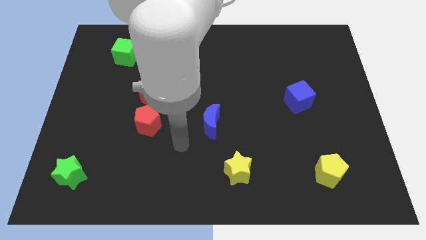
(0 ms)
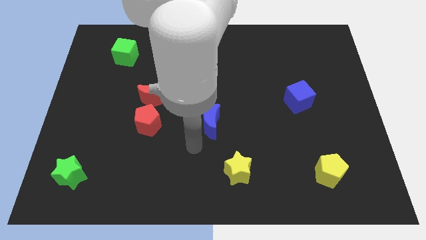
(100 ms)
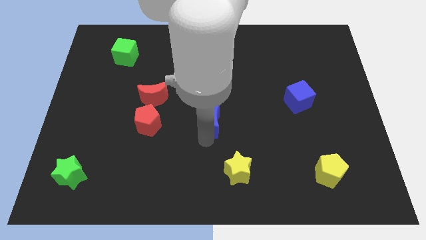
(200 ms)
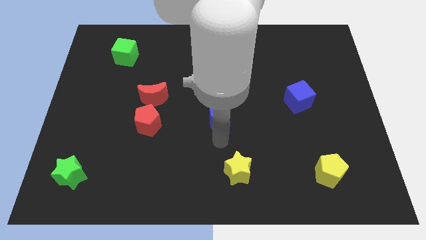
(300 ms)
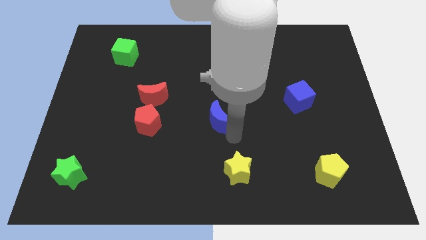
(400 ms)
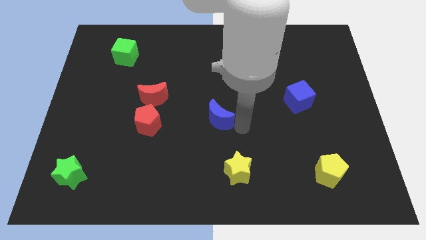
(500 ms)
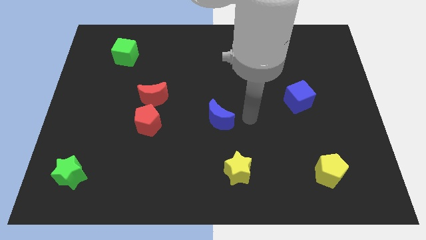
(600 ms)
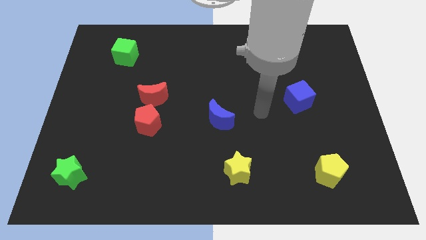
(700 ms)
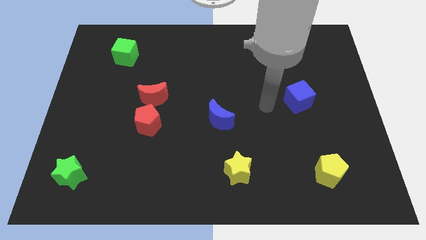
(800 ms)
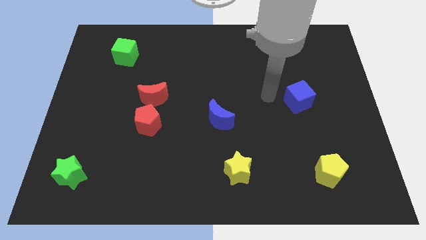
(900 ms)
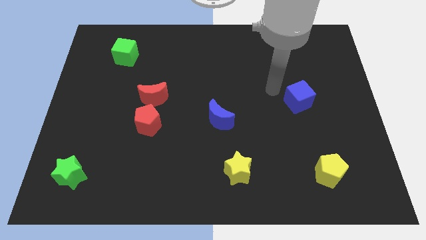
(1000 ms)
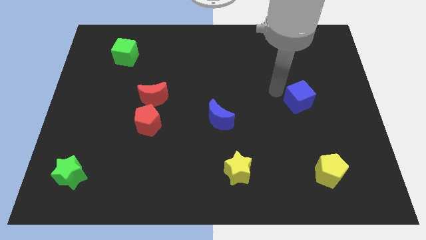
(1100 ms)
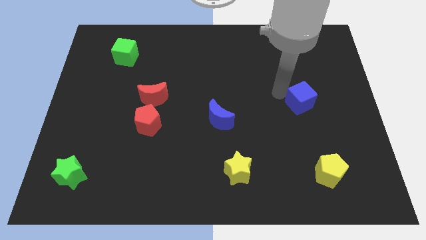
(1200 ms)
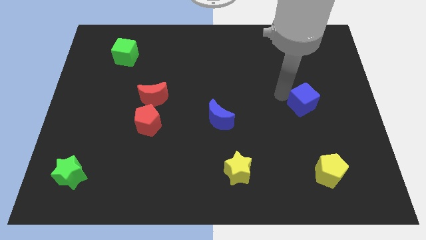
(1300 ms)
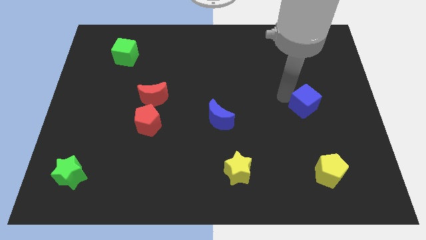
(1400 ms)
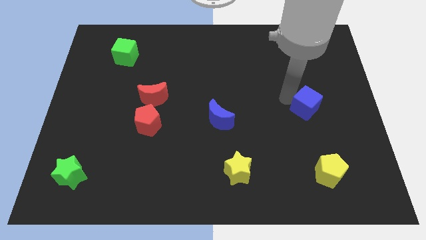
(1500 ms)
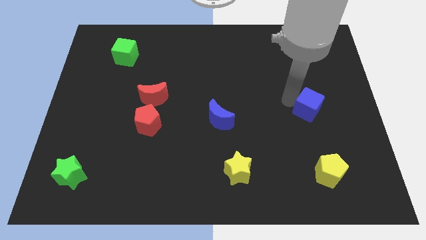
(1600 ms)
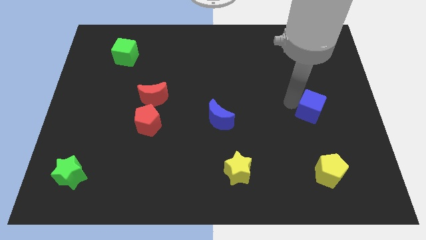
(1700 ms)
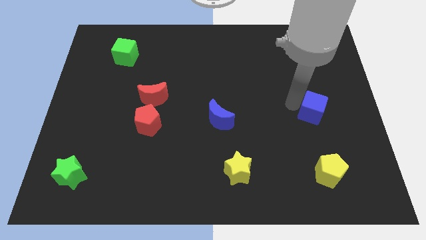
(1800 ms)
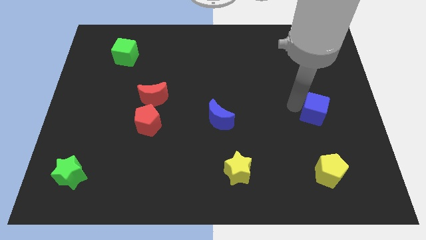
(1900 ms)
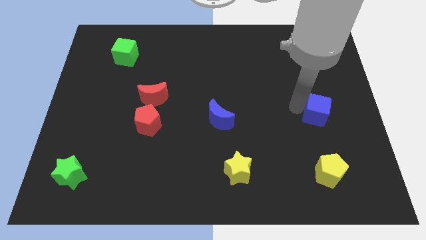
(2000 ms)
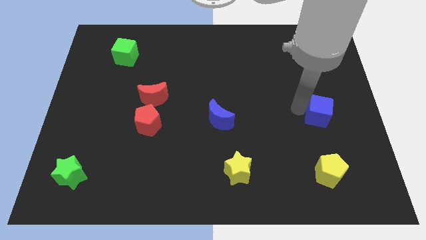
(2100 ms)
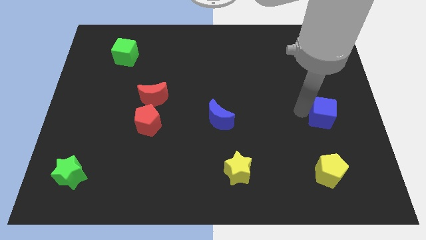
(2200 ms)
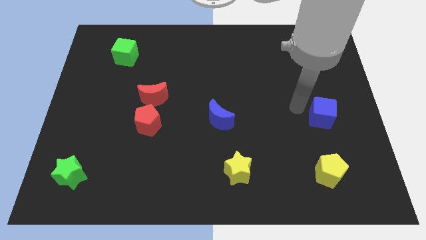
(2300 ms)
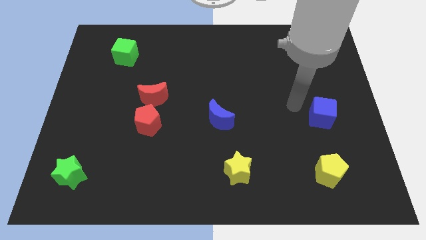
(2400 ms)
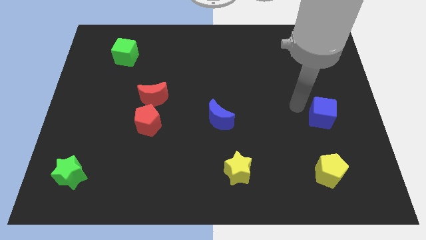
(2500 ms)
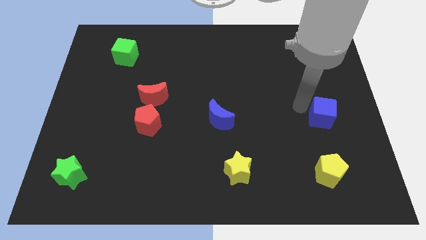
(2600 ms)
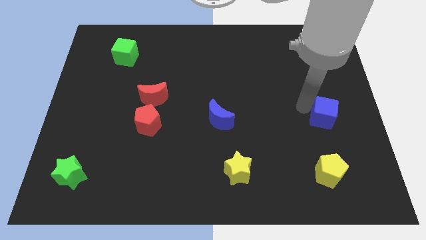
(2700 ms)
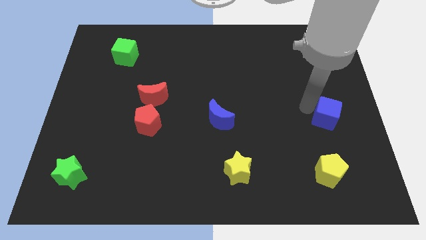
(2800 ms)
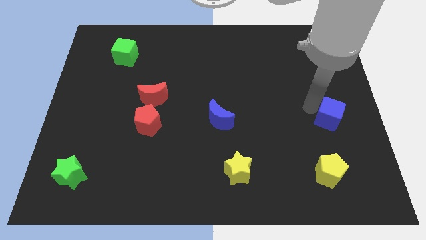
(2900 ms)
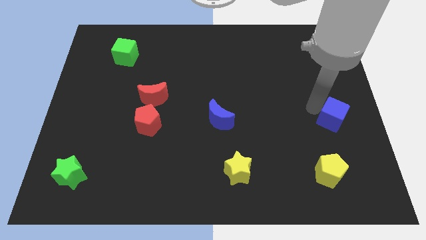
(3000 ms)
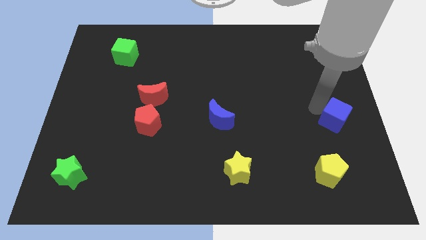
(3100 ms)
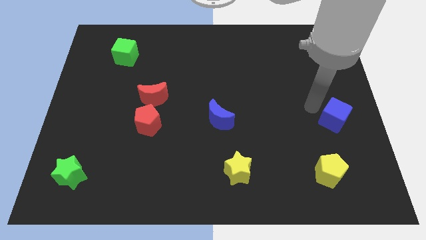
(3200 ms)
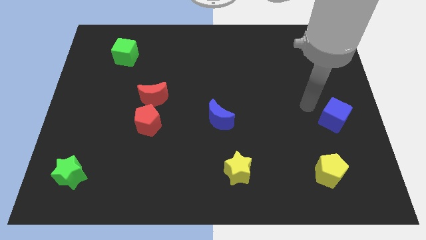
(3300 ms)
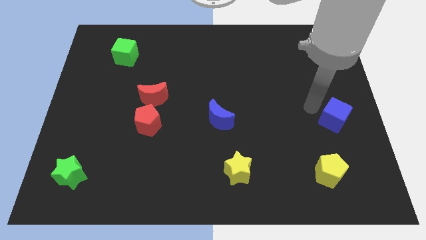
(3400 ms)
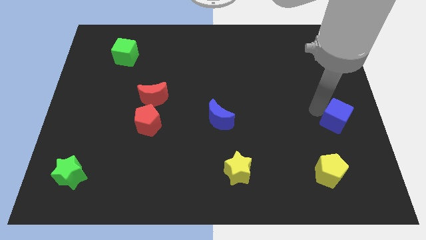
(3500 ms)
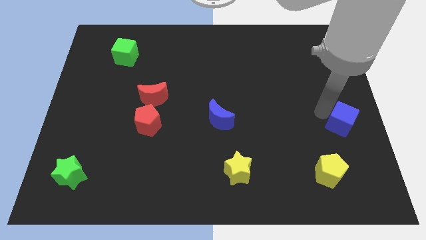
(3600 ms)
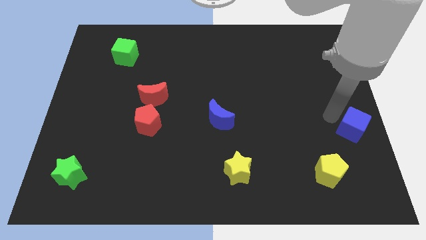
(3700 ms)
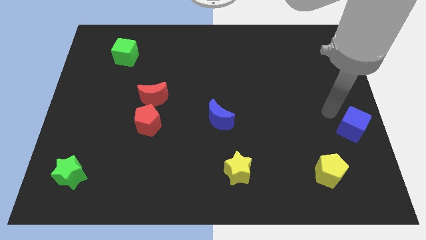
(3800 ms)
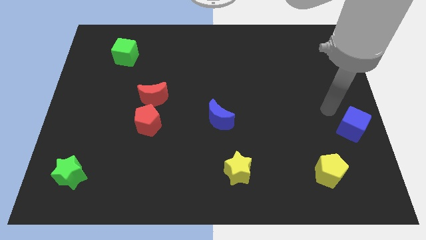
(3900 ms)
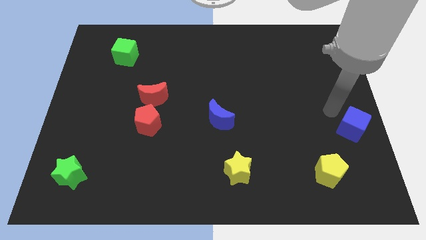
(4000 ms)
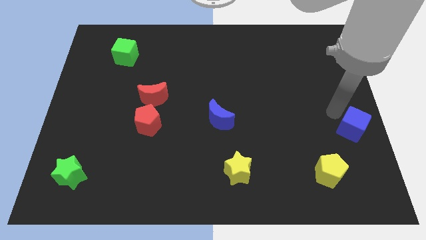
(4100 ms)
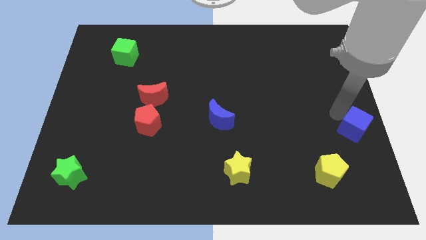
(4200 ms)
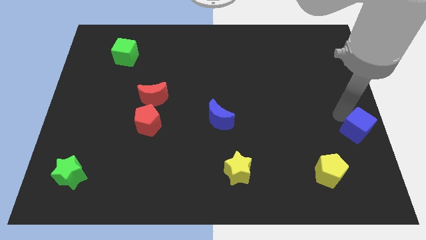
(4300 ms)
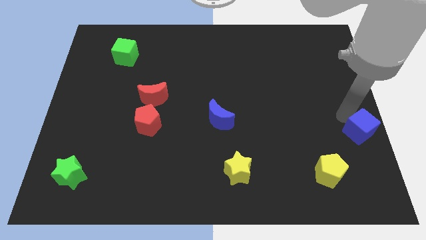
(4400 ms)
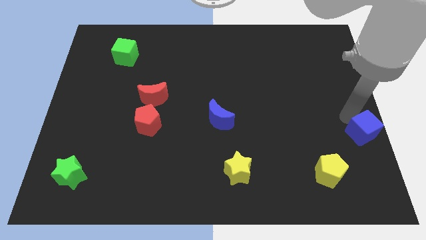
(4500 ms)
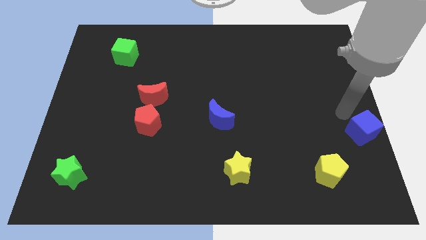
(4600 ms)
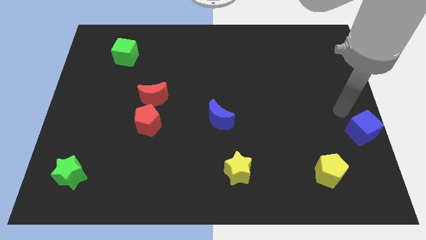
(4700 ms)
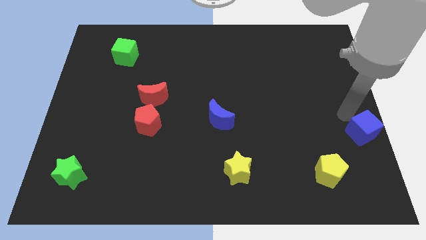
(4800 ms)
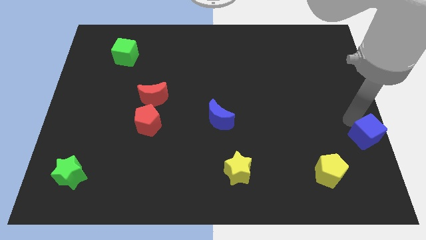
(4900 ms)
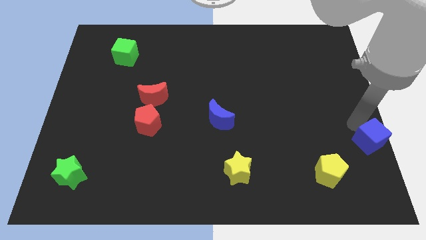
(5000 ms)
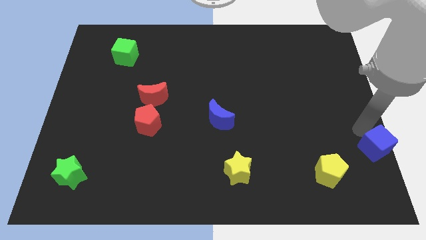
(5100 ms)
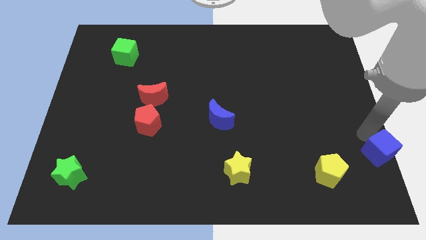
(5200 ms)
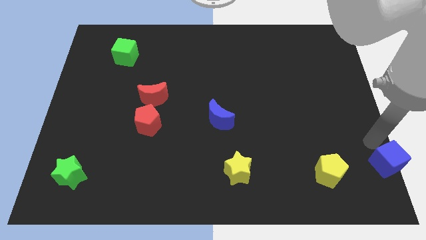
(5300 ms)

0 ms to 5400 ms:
put the blue cube to the lower right corner

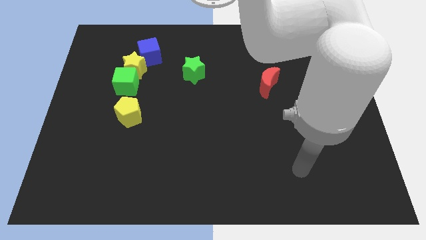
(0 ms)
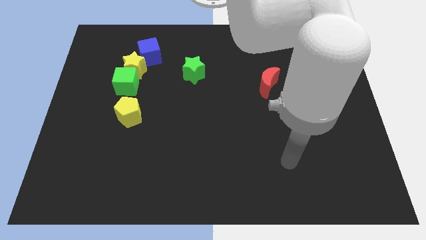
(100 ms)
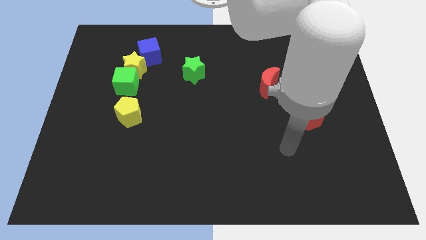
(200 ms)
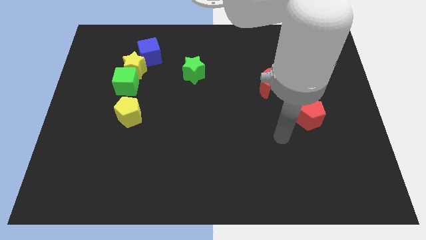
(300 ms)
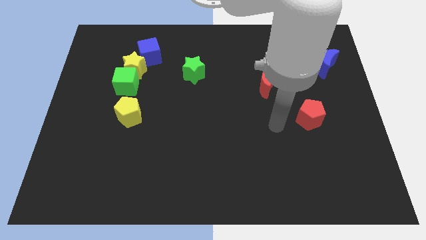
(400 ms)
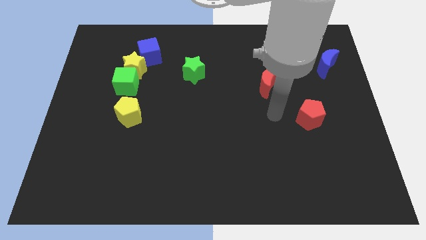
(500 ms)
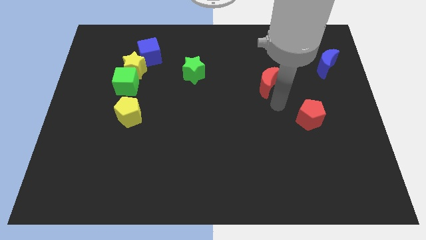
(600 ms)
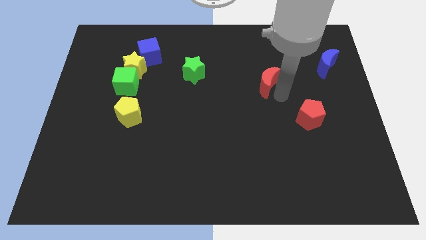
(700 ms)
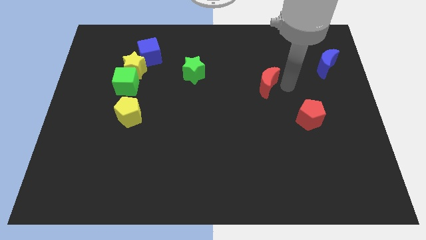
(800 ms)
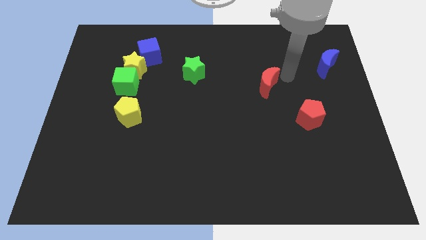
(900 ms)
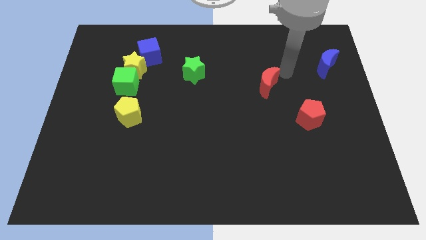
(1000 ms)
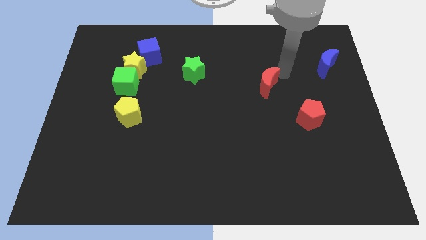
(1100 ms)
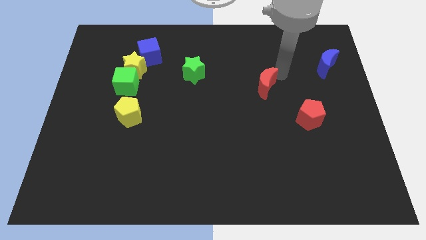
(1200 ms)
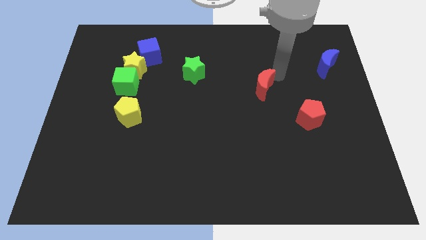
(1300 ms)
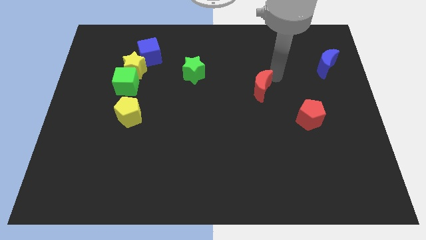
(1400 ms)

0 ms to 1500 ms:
move the red moon to the middle of the board

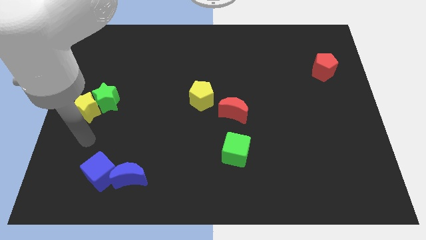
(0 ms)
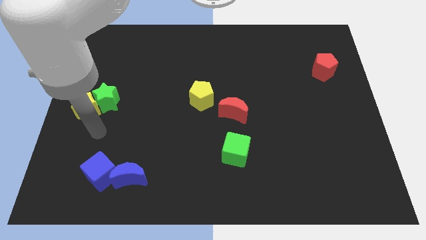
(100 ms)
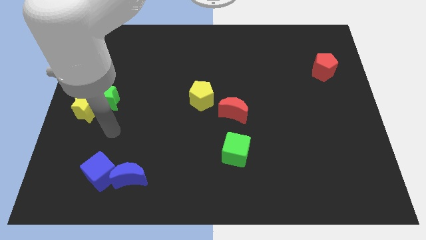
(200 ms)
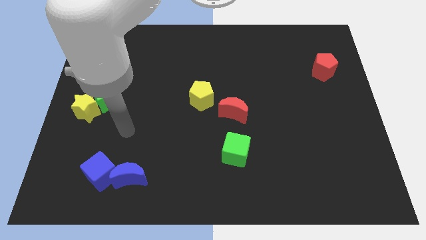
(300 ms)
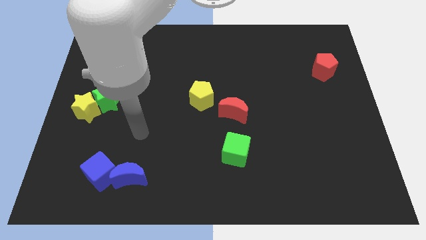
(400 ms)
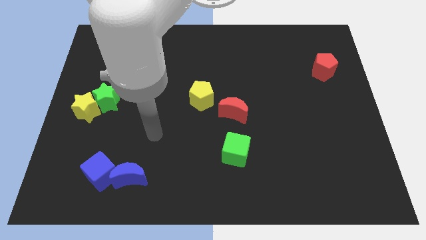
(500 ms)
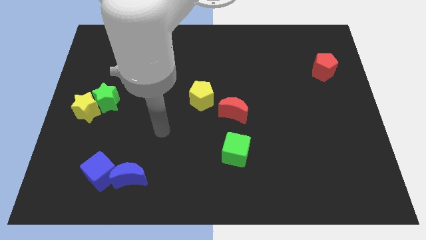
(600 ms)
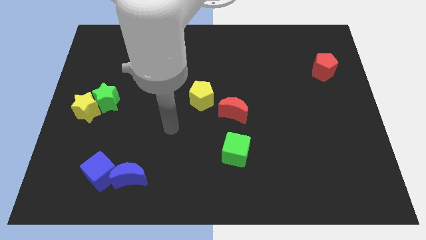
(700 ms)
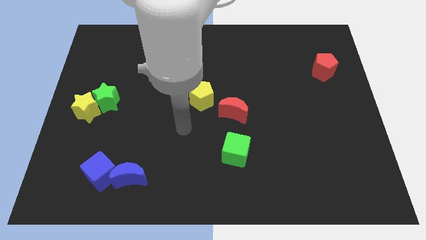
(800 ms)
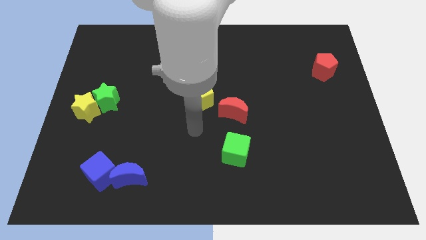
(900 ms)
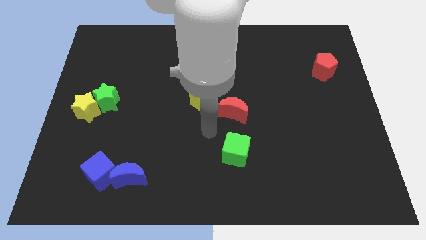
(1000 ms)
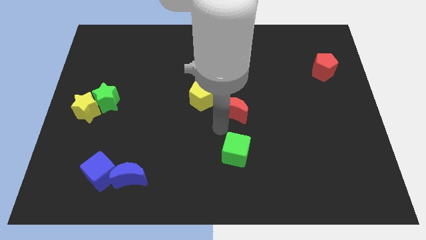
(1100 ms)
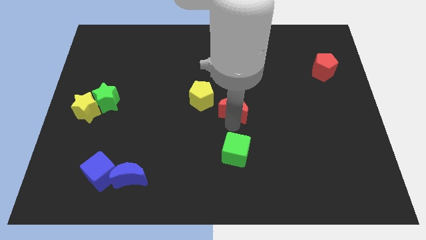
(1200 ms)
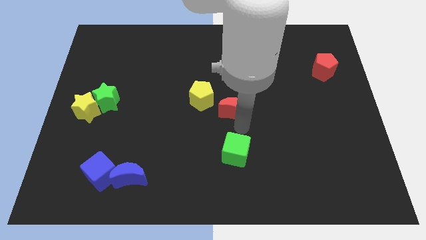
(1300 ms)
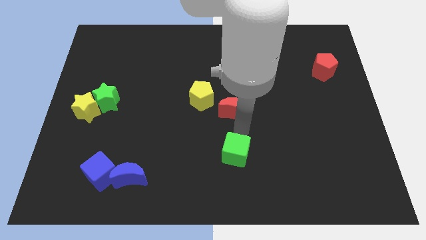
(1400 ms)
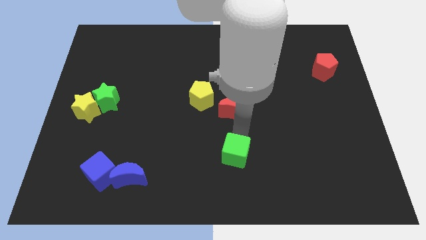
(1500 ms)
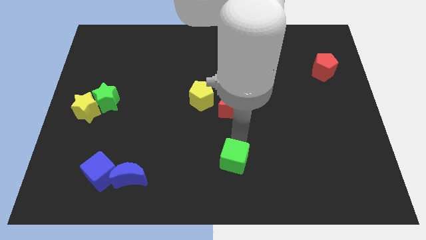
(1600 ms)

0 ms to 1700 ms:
slide the green cube to the bottom side
